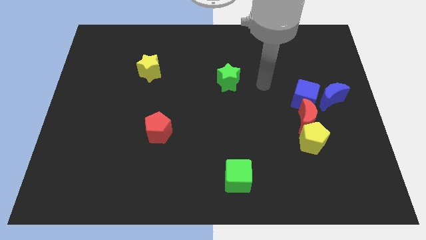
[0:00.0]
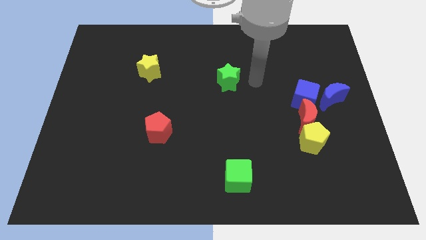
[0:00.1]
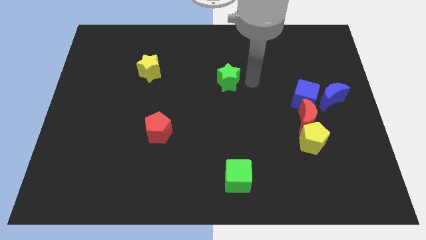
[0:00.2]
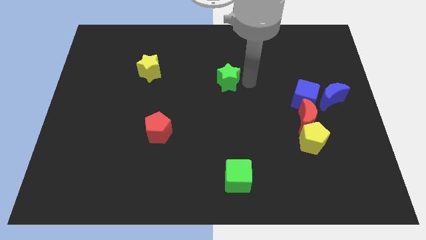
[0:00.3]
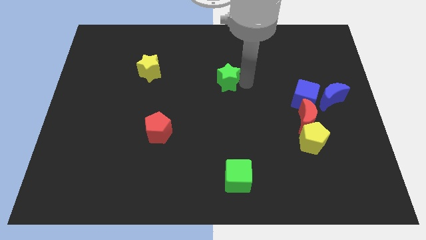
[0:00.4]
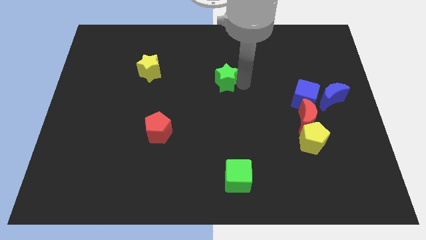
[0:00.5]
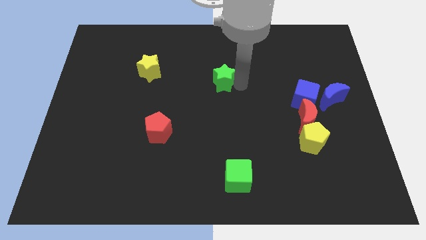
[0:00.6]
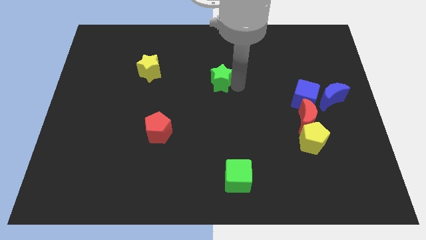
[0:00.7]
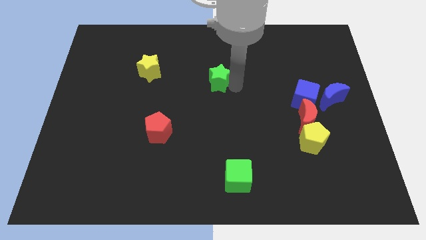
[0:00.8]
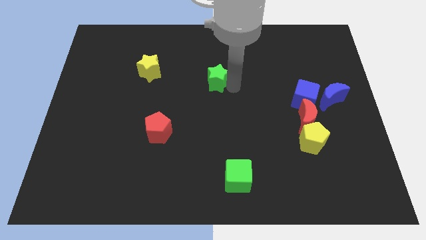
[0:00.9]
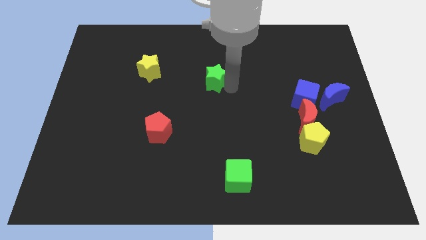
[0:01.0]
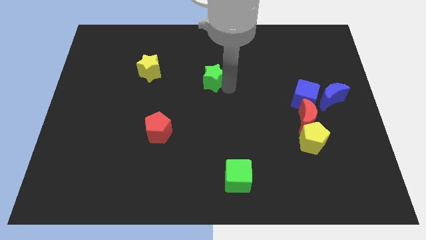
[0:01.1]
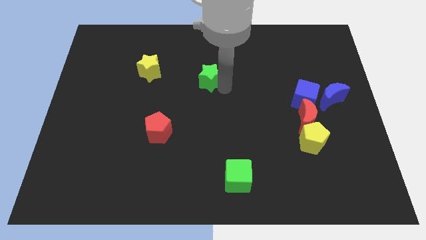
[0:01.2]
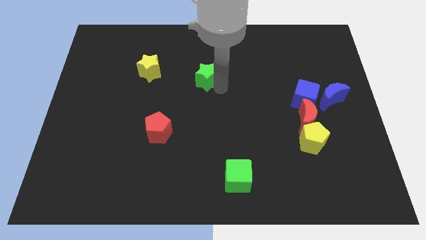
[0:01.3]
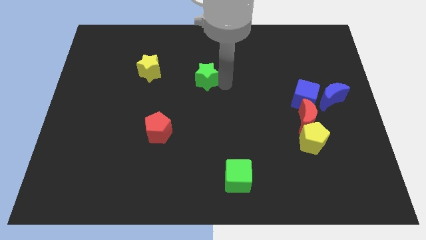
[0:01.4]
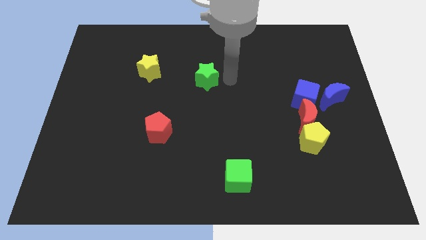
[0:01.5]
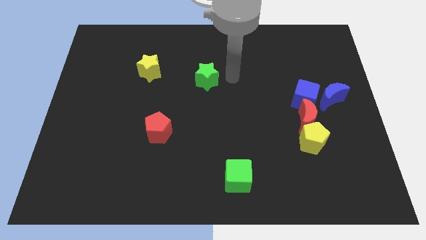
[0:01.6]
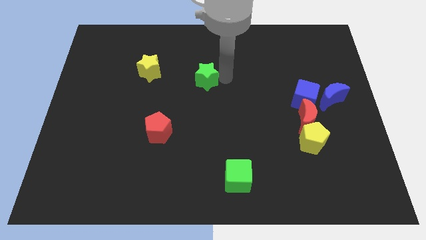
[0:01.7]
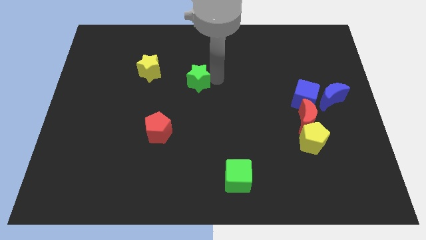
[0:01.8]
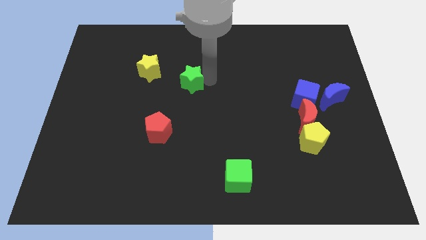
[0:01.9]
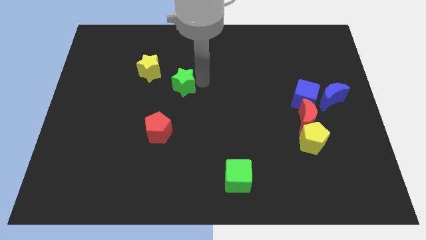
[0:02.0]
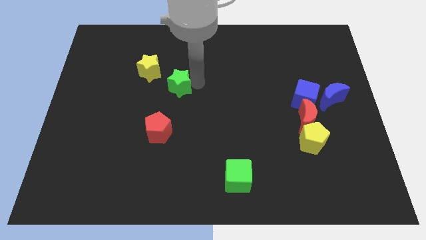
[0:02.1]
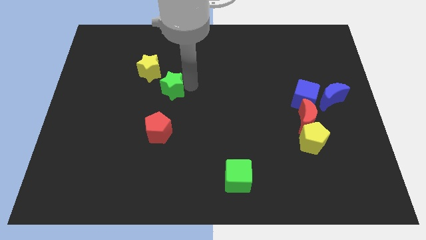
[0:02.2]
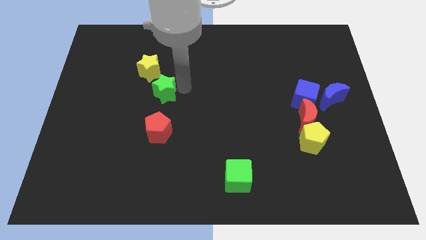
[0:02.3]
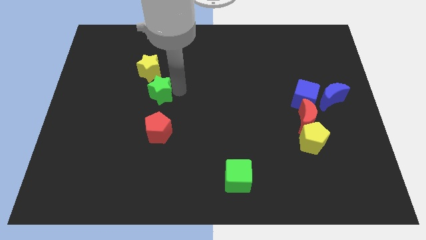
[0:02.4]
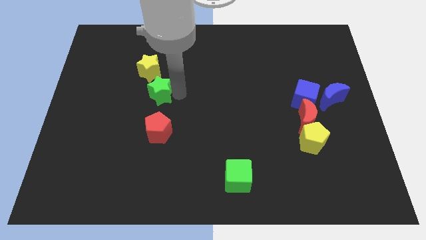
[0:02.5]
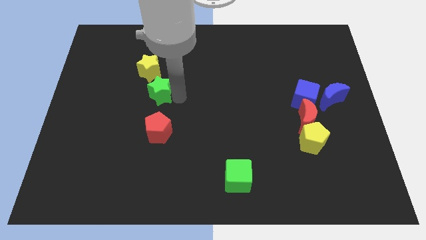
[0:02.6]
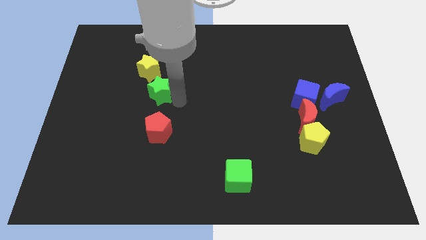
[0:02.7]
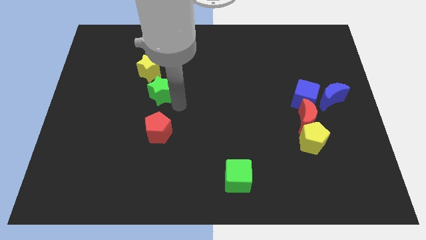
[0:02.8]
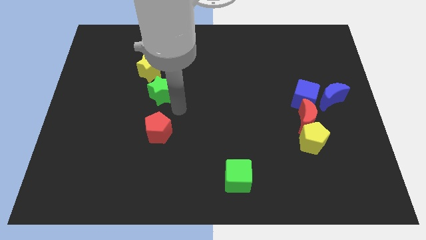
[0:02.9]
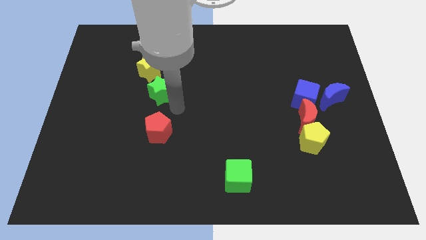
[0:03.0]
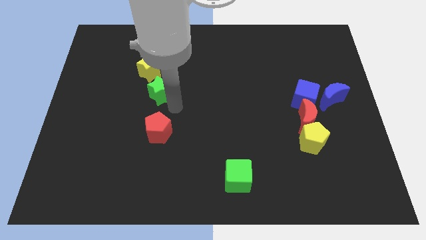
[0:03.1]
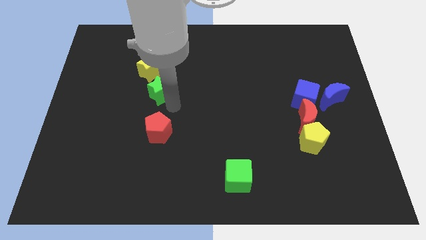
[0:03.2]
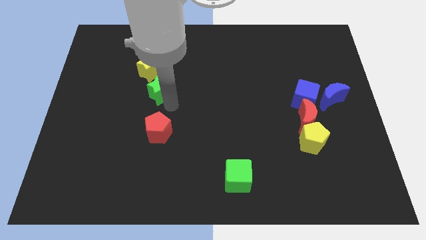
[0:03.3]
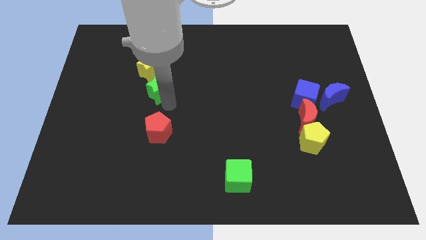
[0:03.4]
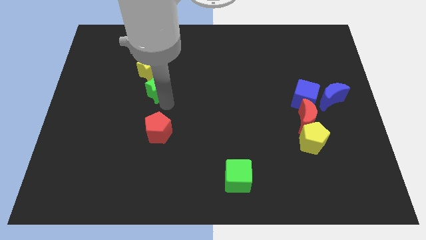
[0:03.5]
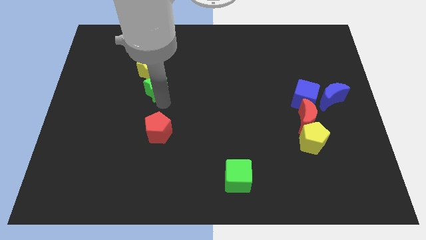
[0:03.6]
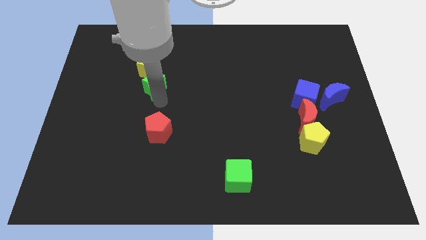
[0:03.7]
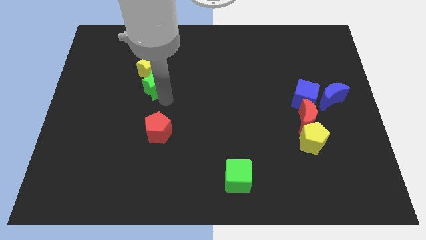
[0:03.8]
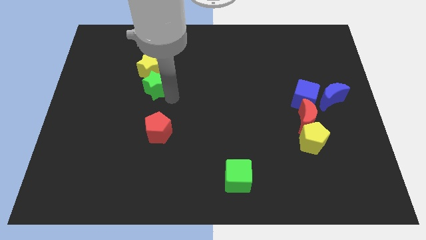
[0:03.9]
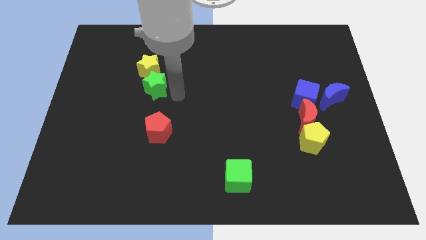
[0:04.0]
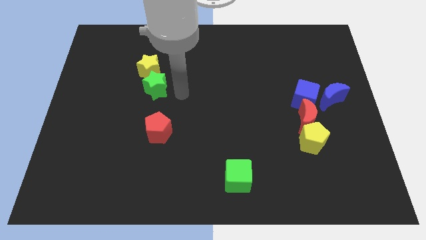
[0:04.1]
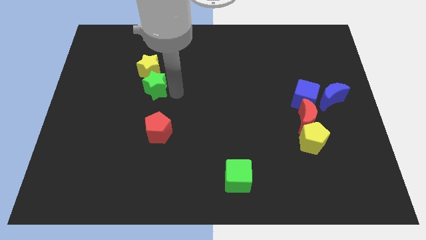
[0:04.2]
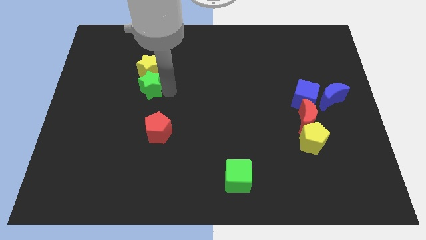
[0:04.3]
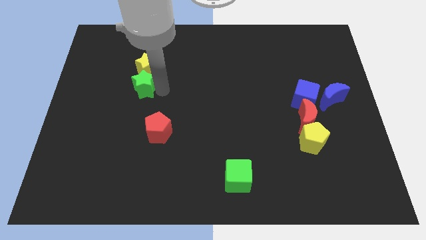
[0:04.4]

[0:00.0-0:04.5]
push the green star left

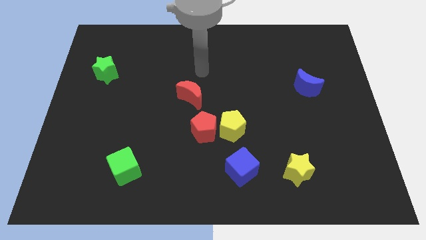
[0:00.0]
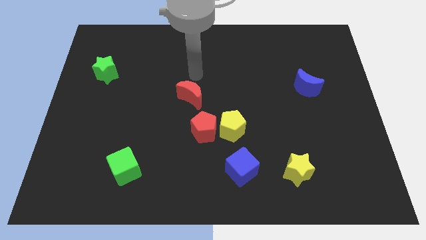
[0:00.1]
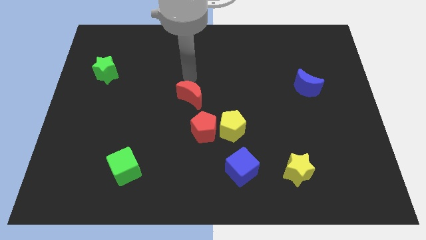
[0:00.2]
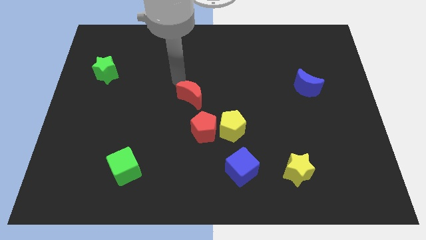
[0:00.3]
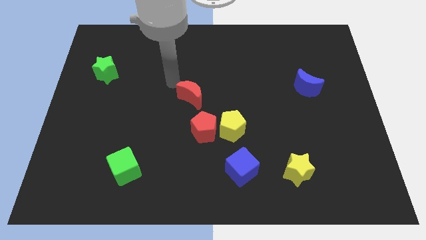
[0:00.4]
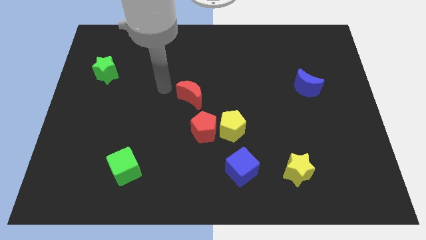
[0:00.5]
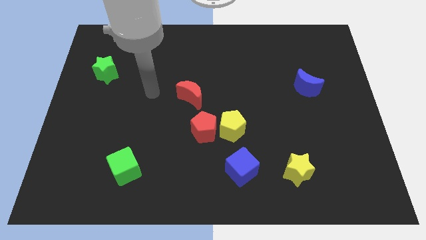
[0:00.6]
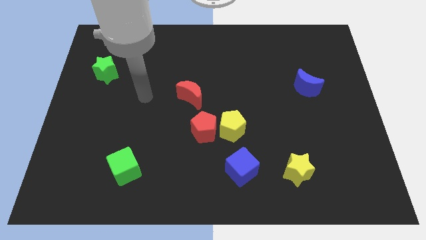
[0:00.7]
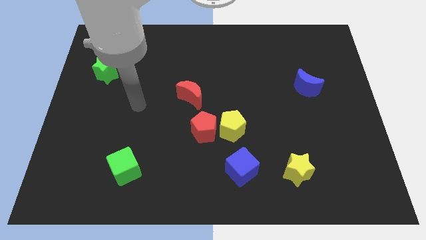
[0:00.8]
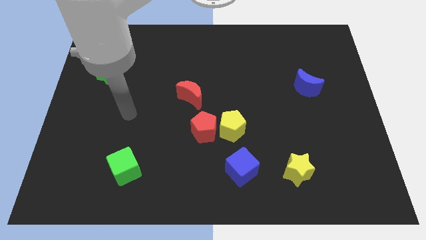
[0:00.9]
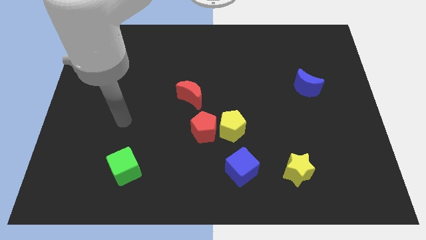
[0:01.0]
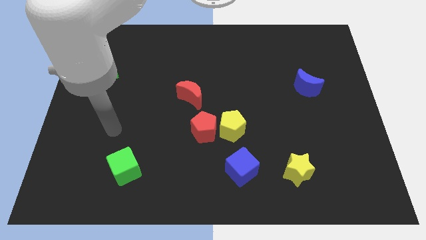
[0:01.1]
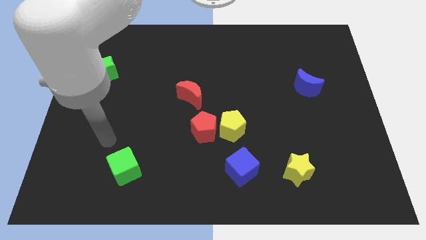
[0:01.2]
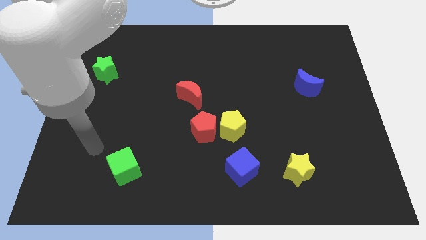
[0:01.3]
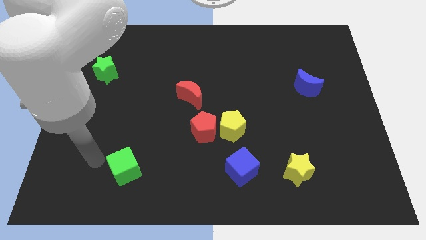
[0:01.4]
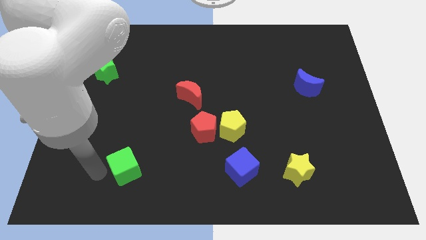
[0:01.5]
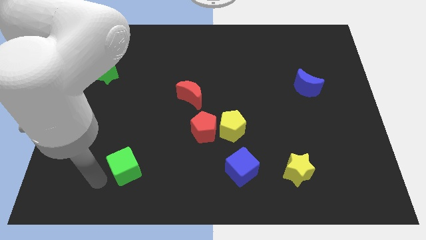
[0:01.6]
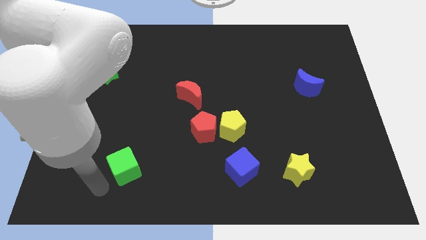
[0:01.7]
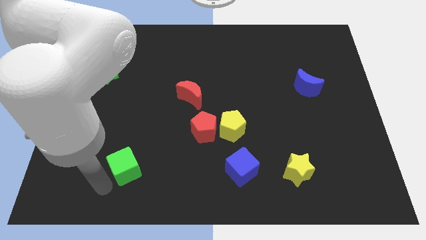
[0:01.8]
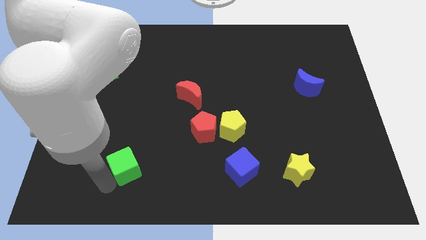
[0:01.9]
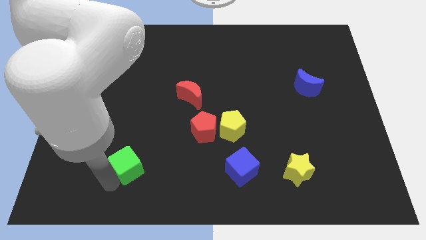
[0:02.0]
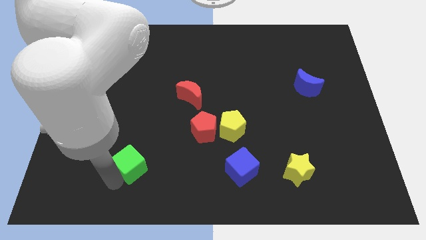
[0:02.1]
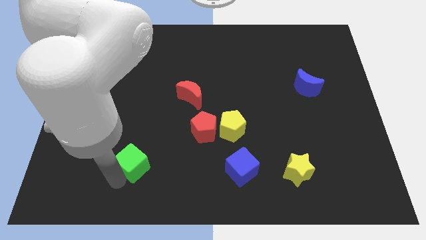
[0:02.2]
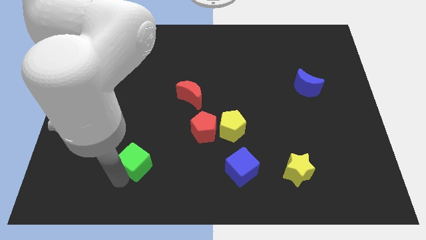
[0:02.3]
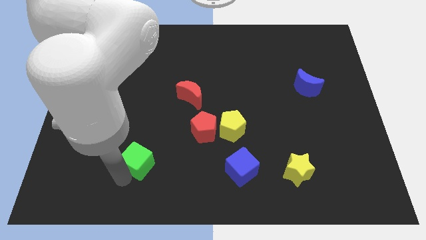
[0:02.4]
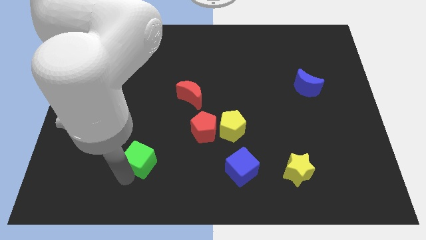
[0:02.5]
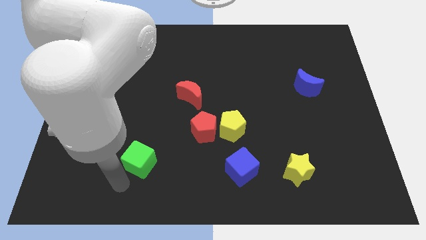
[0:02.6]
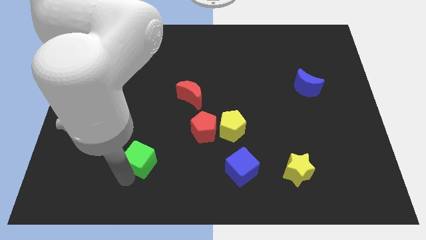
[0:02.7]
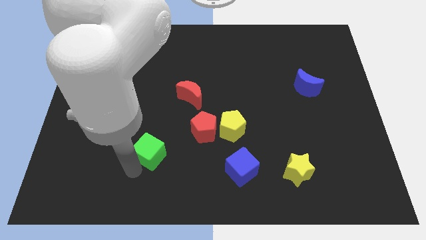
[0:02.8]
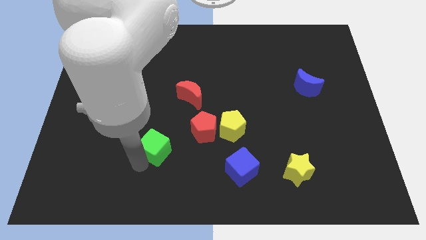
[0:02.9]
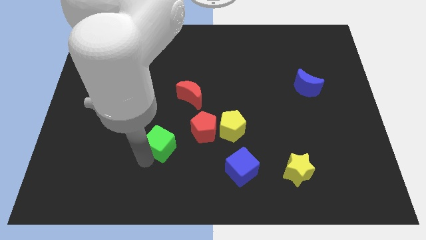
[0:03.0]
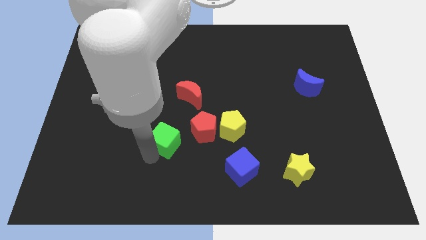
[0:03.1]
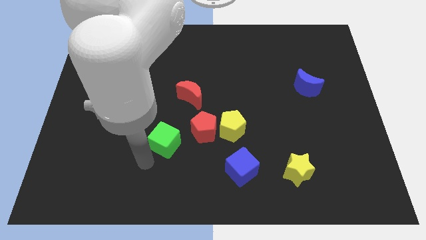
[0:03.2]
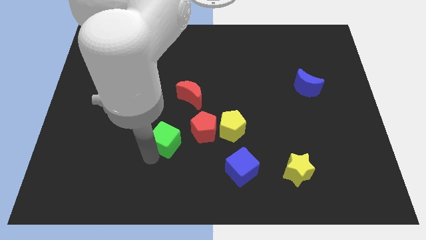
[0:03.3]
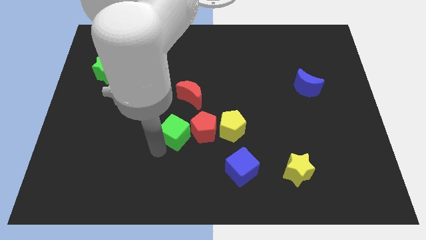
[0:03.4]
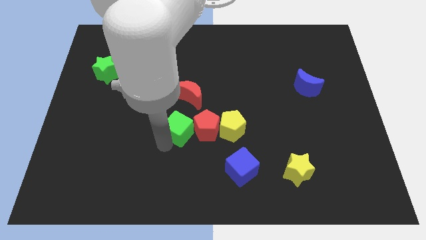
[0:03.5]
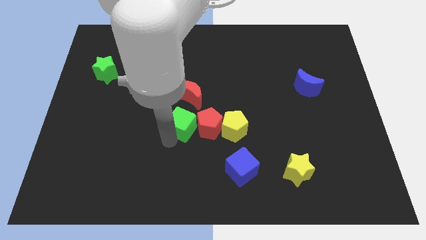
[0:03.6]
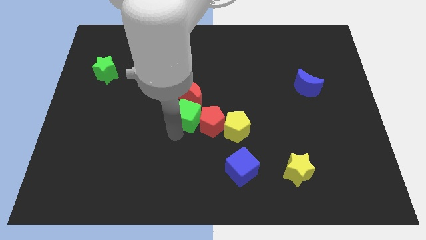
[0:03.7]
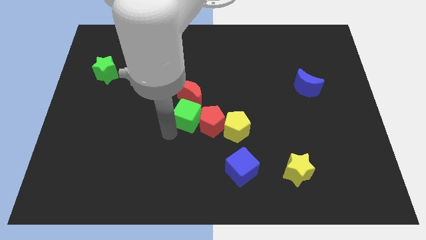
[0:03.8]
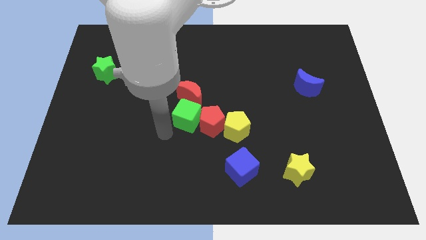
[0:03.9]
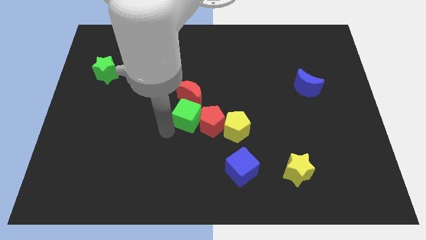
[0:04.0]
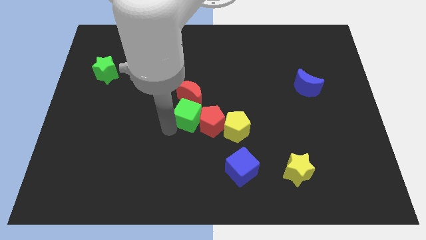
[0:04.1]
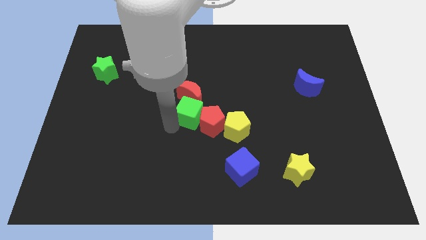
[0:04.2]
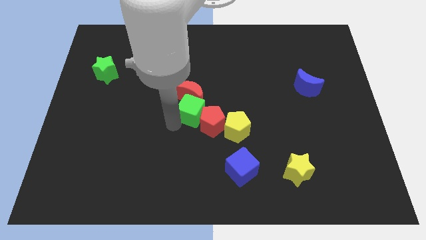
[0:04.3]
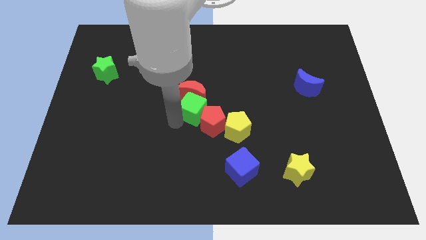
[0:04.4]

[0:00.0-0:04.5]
move the green cube diagonally upwards and right
